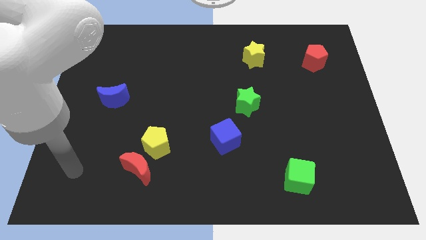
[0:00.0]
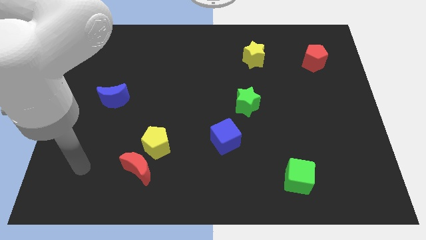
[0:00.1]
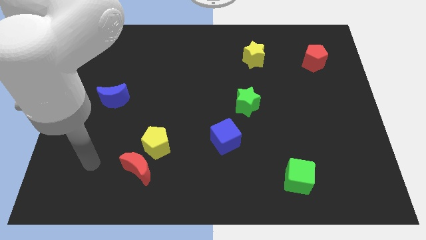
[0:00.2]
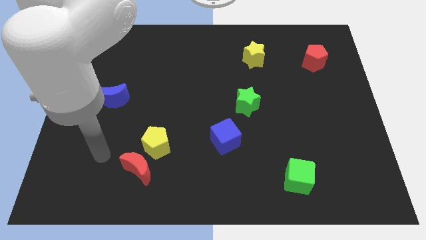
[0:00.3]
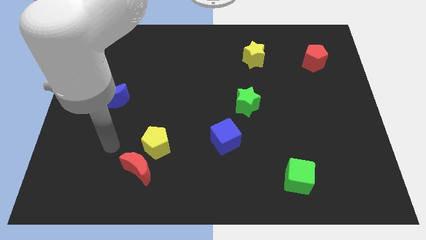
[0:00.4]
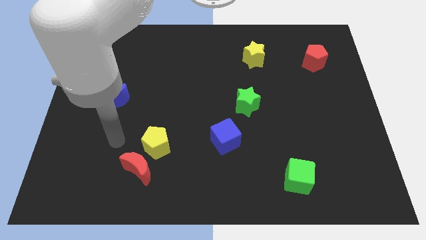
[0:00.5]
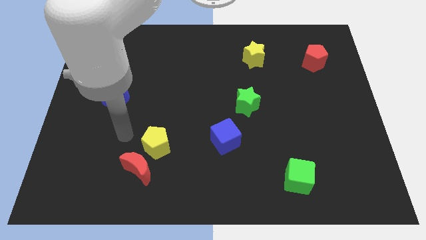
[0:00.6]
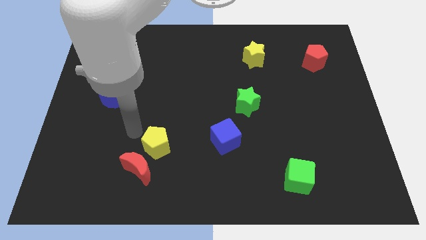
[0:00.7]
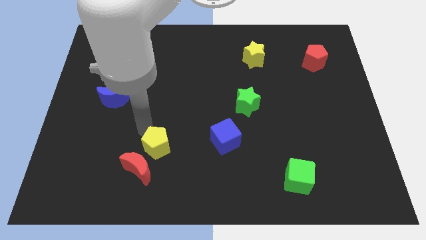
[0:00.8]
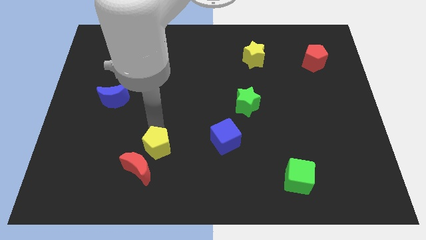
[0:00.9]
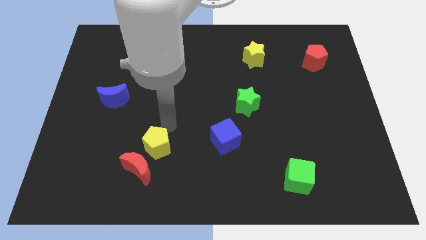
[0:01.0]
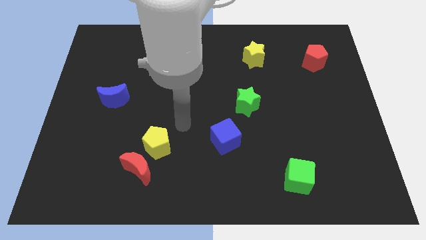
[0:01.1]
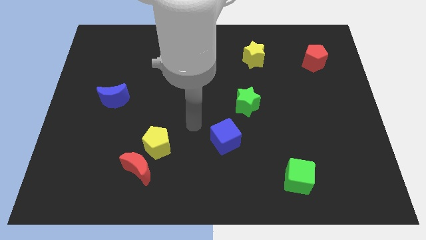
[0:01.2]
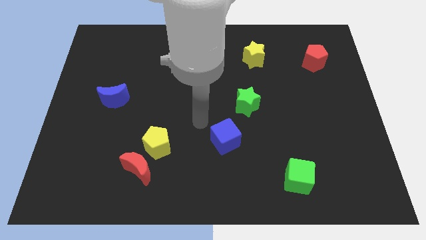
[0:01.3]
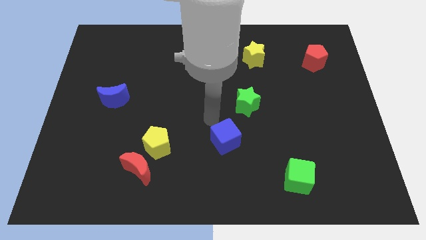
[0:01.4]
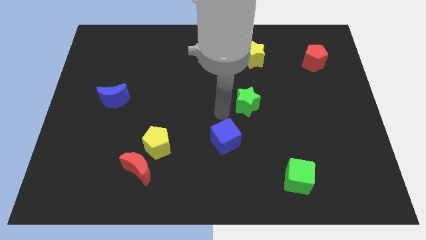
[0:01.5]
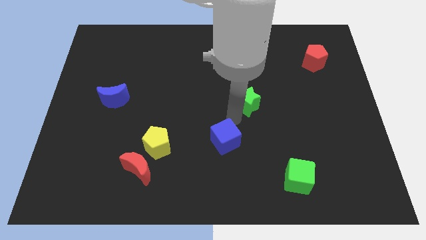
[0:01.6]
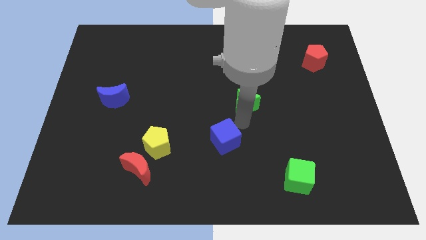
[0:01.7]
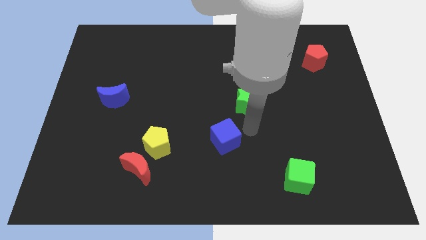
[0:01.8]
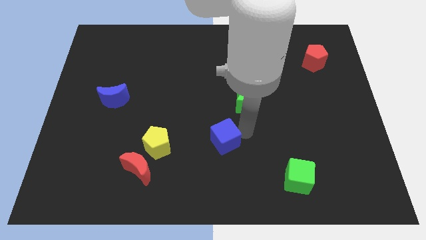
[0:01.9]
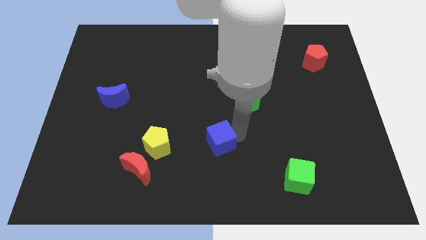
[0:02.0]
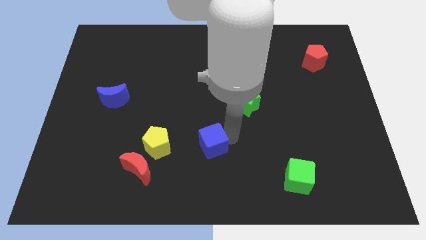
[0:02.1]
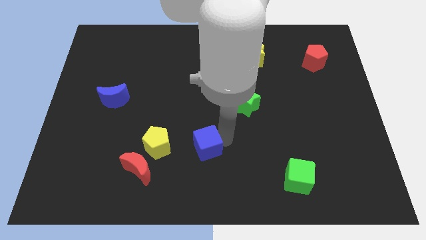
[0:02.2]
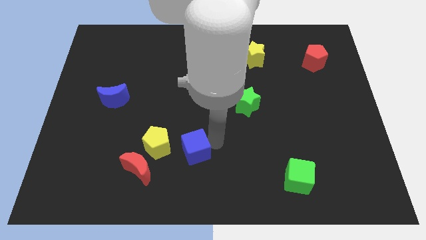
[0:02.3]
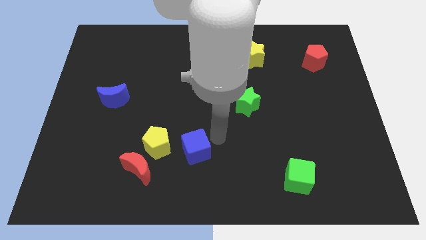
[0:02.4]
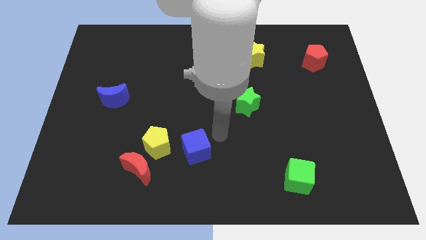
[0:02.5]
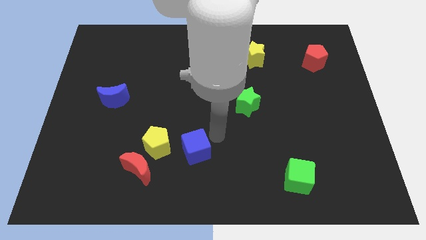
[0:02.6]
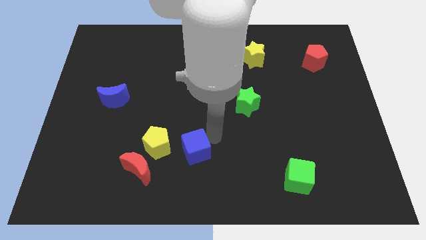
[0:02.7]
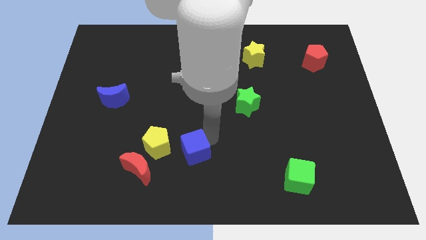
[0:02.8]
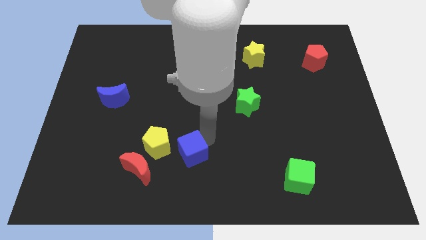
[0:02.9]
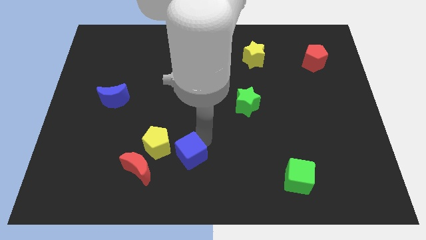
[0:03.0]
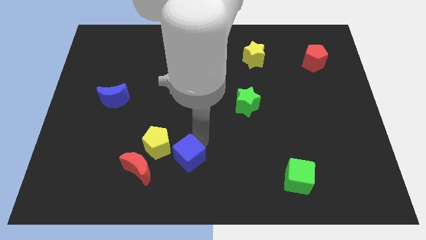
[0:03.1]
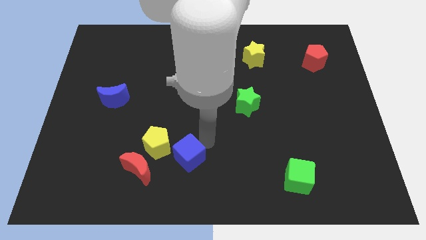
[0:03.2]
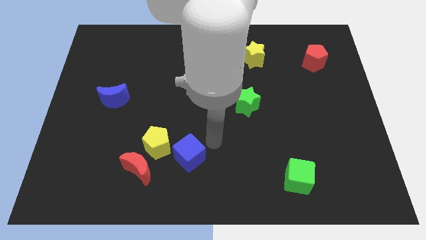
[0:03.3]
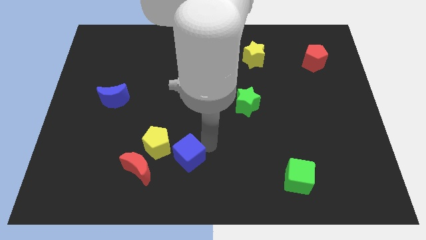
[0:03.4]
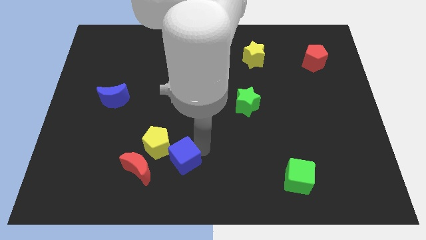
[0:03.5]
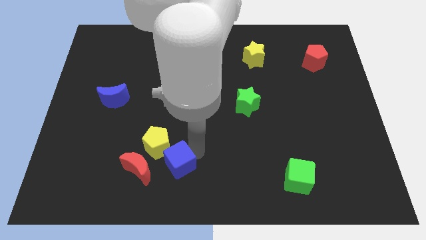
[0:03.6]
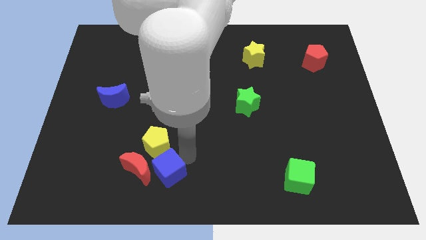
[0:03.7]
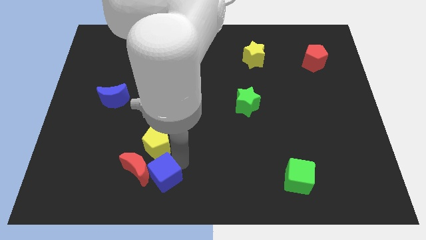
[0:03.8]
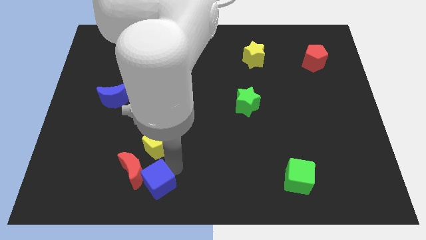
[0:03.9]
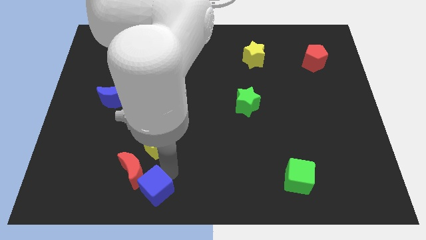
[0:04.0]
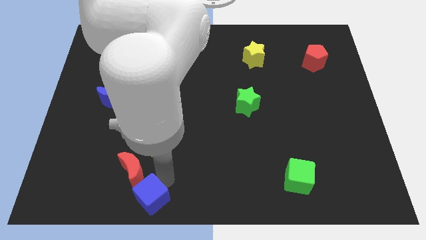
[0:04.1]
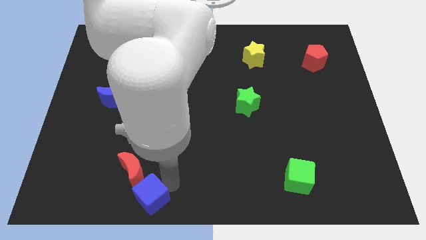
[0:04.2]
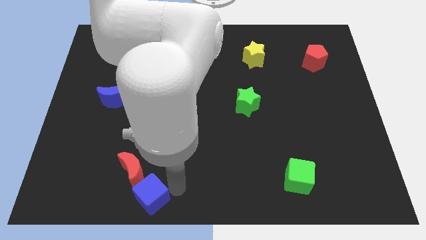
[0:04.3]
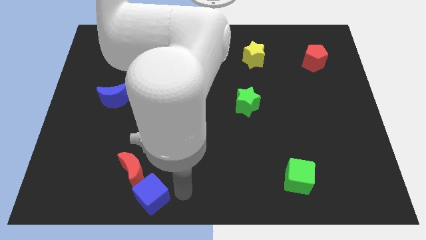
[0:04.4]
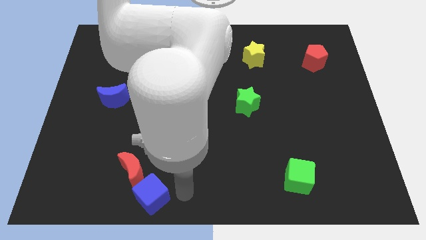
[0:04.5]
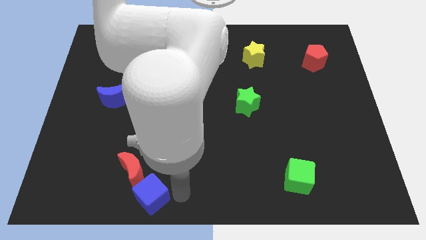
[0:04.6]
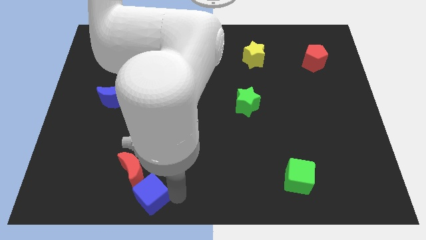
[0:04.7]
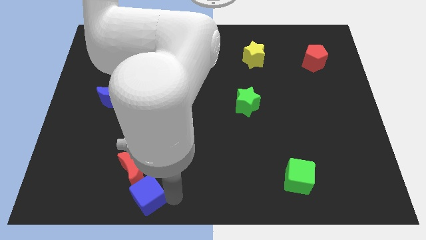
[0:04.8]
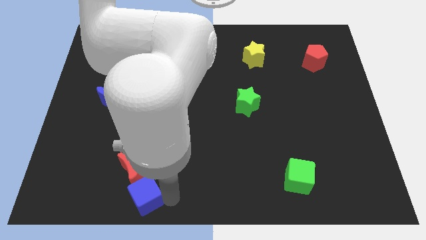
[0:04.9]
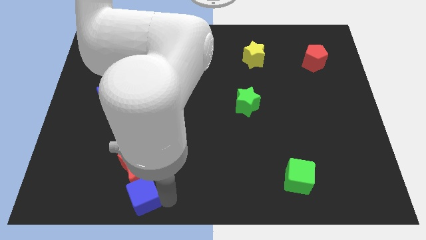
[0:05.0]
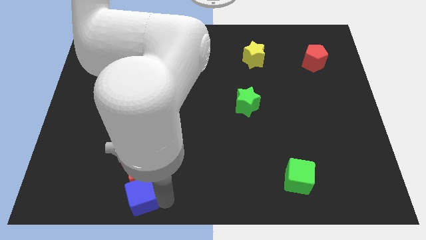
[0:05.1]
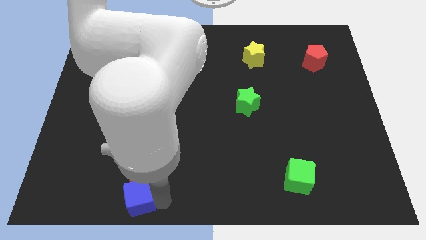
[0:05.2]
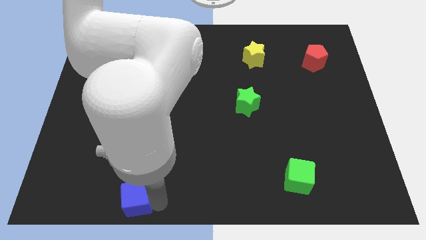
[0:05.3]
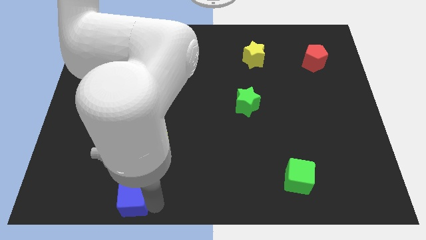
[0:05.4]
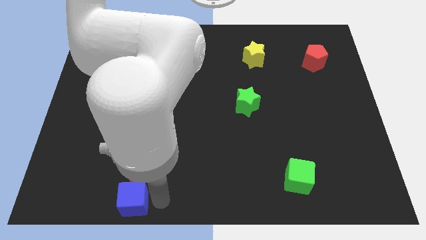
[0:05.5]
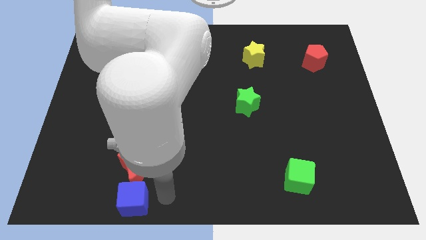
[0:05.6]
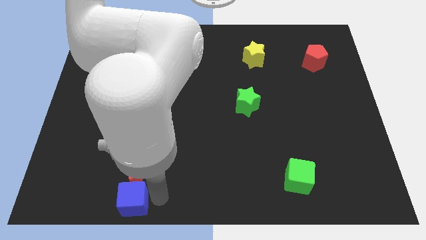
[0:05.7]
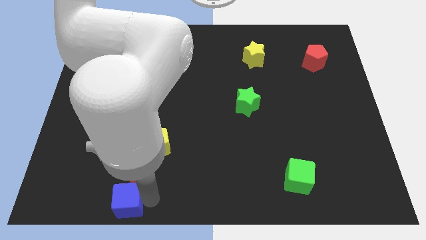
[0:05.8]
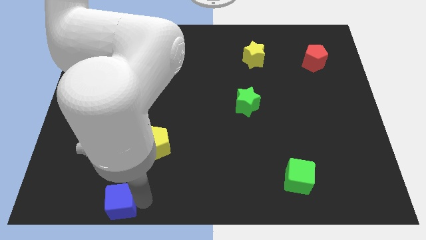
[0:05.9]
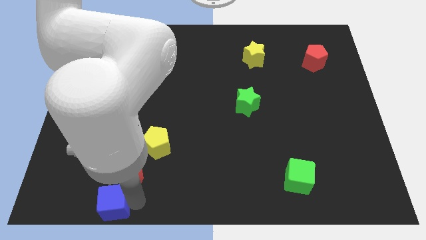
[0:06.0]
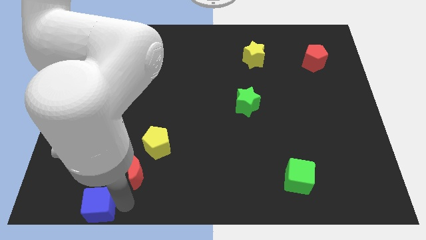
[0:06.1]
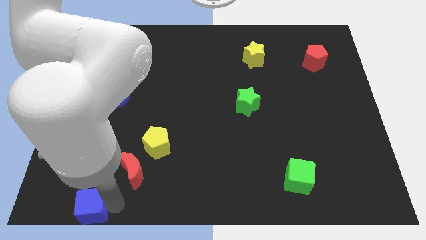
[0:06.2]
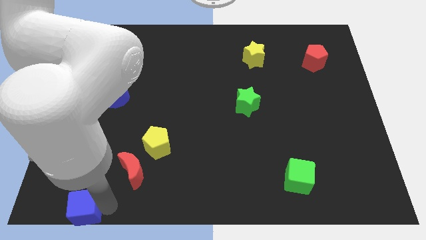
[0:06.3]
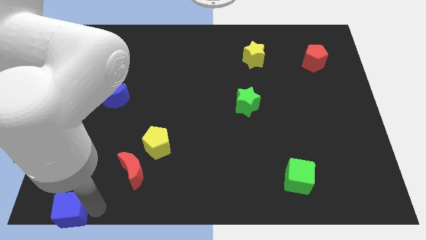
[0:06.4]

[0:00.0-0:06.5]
push the blue cube to the bottom left of the board
